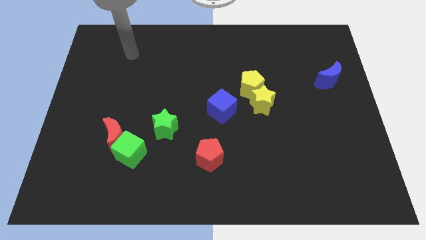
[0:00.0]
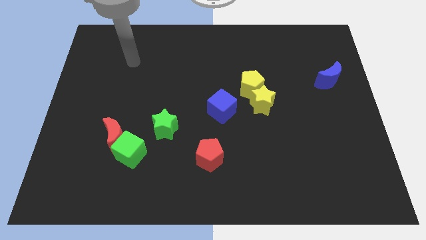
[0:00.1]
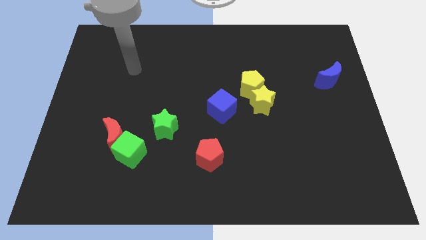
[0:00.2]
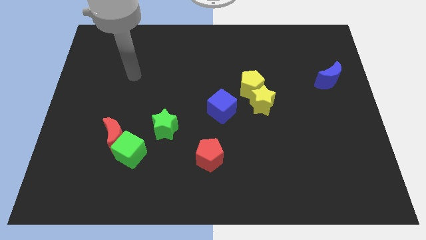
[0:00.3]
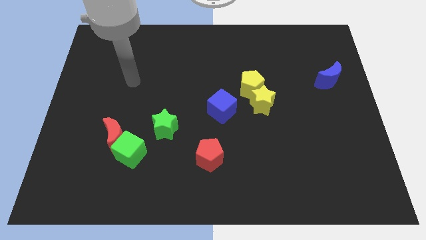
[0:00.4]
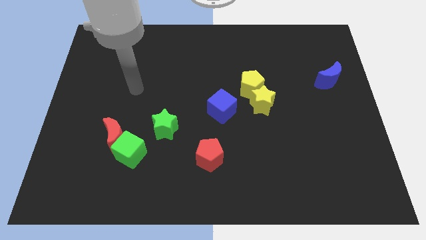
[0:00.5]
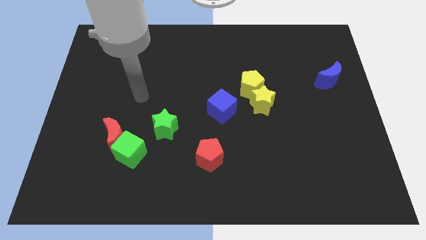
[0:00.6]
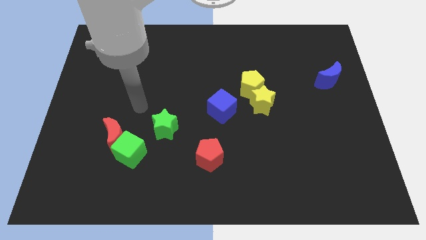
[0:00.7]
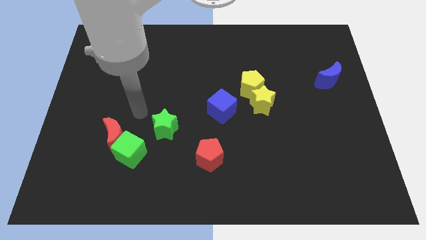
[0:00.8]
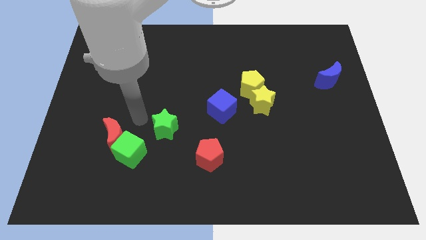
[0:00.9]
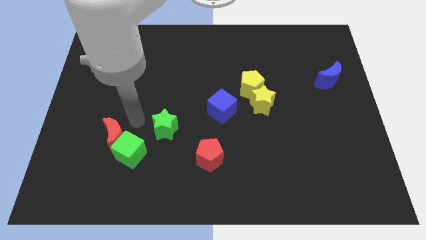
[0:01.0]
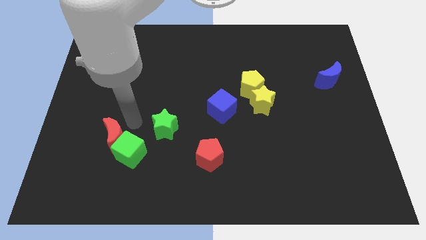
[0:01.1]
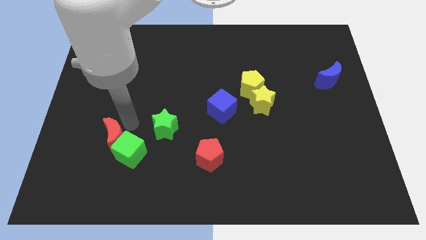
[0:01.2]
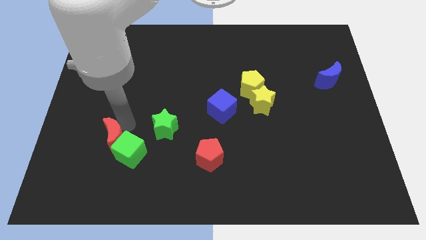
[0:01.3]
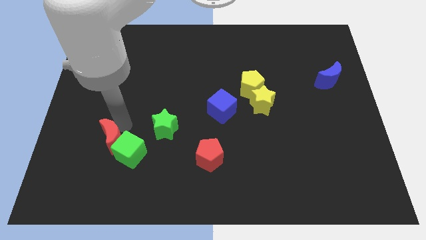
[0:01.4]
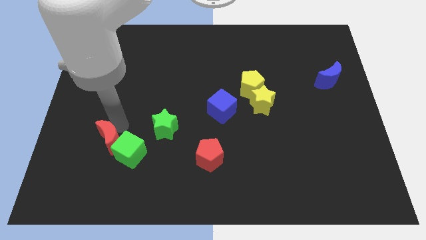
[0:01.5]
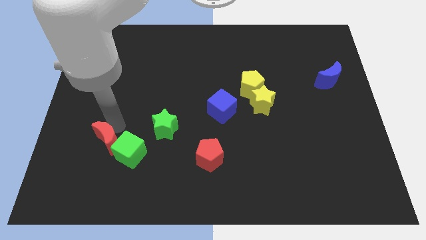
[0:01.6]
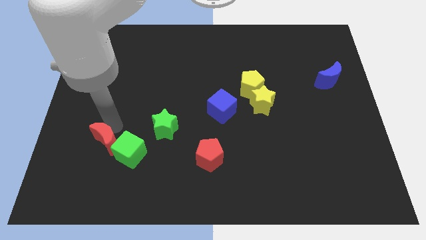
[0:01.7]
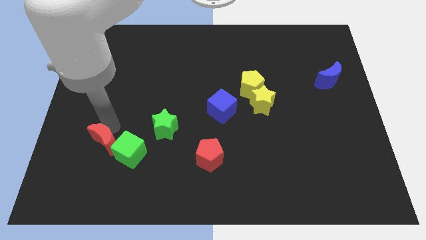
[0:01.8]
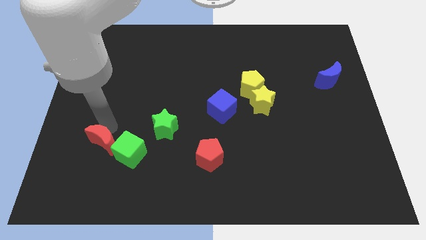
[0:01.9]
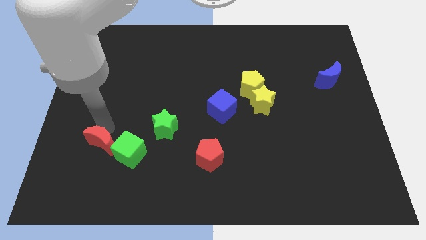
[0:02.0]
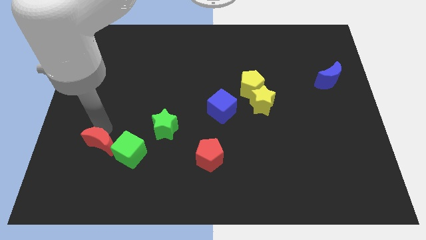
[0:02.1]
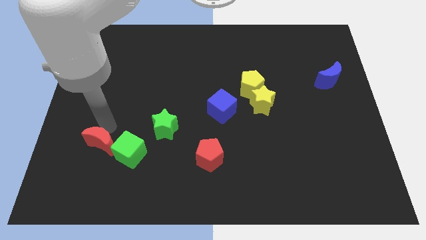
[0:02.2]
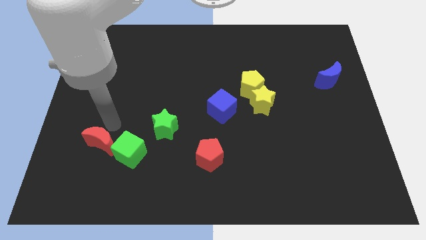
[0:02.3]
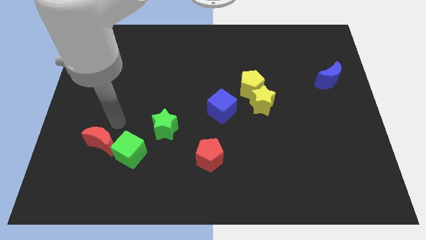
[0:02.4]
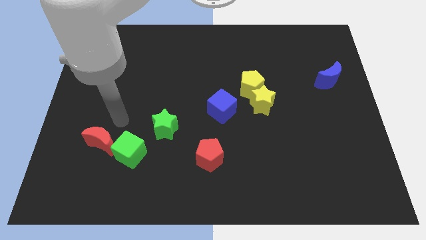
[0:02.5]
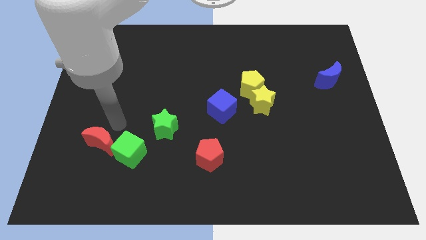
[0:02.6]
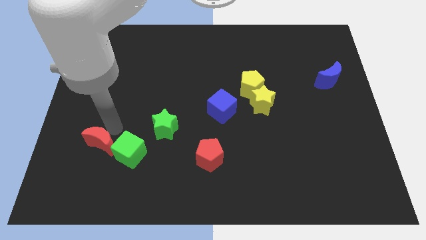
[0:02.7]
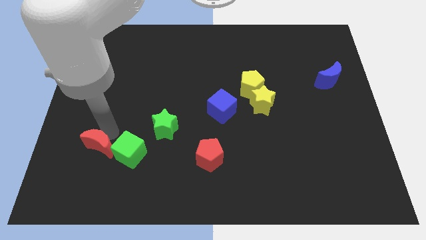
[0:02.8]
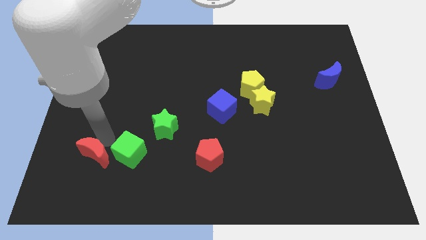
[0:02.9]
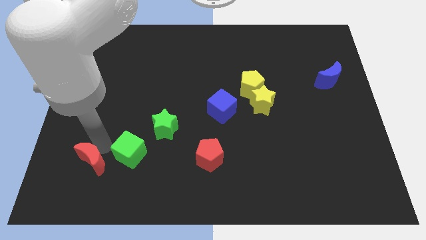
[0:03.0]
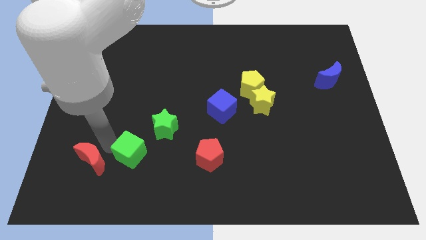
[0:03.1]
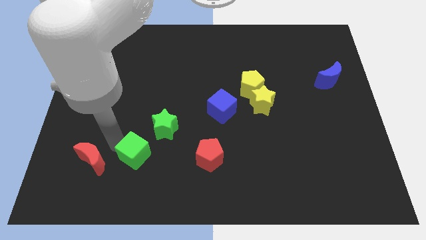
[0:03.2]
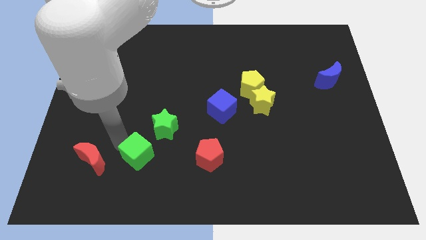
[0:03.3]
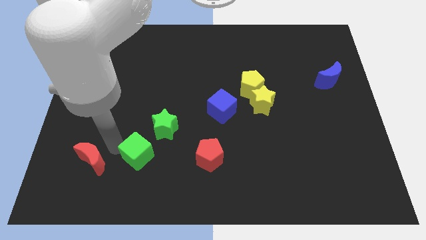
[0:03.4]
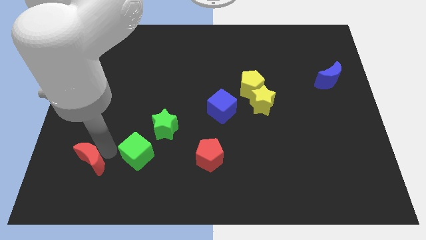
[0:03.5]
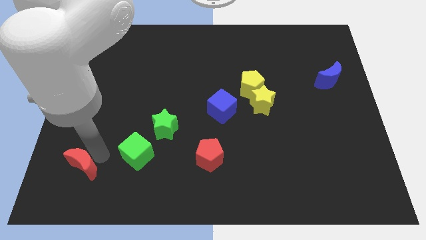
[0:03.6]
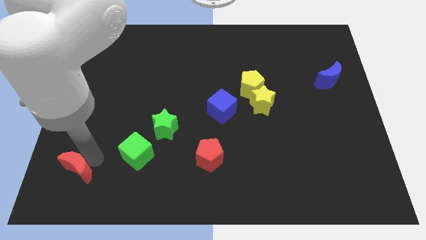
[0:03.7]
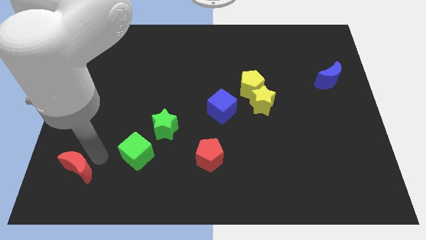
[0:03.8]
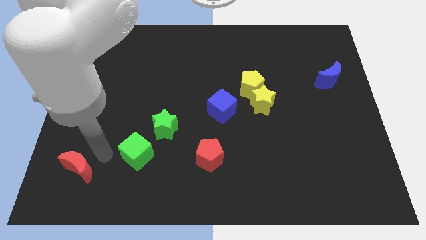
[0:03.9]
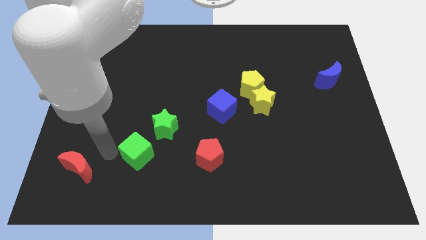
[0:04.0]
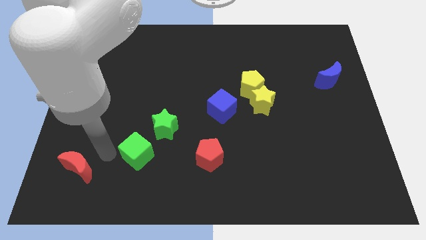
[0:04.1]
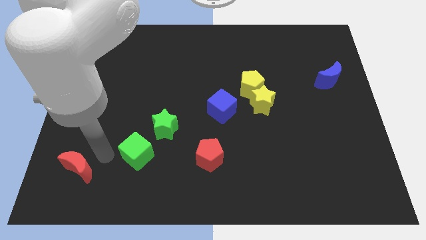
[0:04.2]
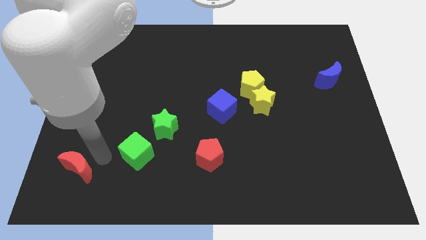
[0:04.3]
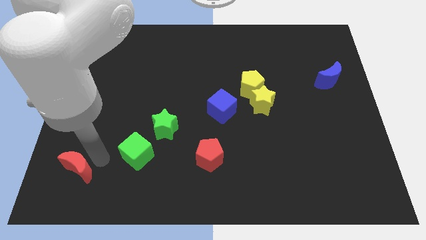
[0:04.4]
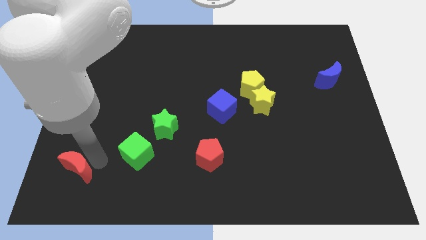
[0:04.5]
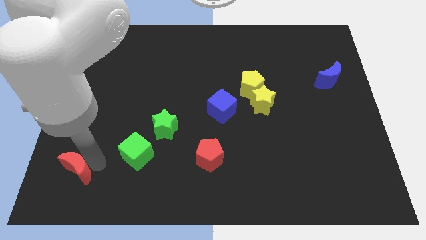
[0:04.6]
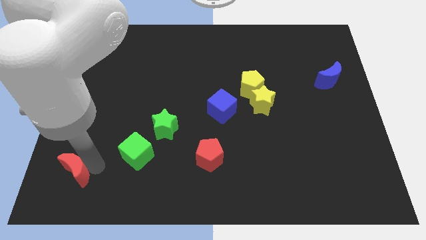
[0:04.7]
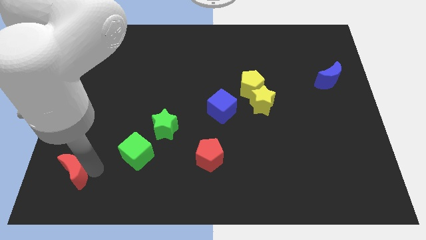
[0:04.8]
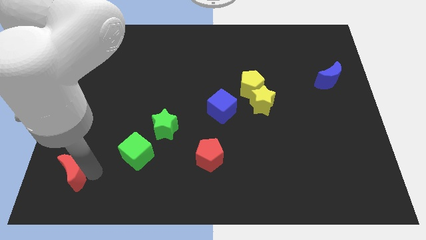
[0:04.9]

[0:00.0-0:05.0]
push the red moon to the bottom left corner

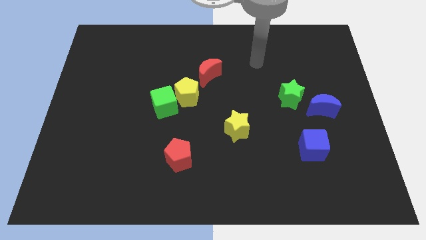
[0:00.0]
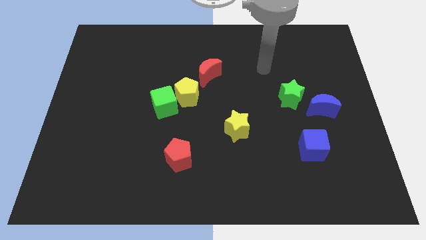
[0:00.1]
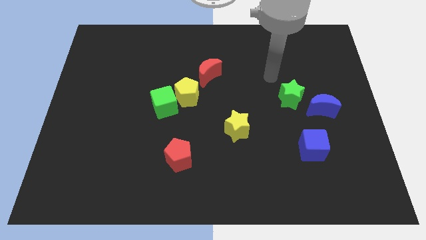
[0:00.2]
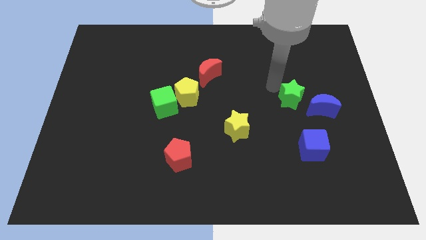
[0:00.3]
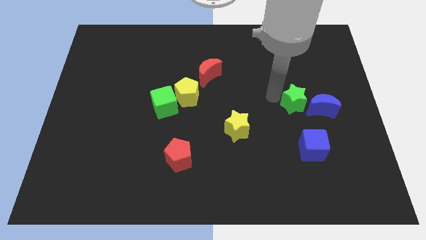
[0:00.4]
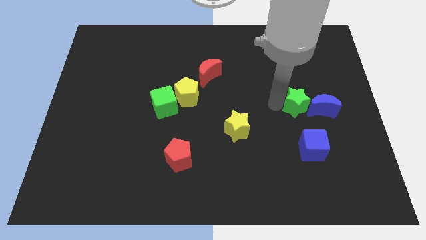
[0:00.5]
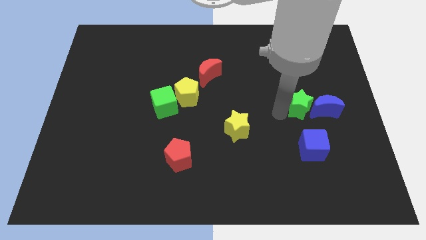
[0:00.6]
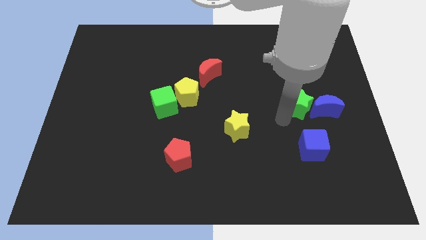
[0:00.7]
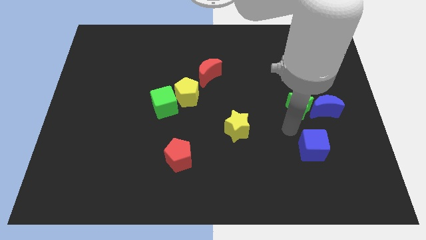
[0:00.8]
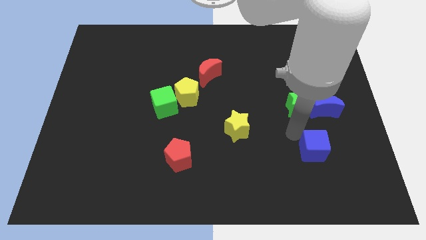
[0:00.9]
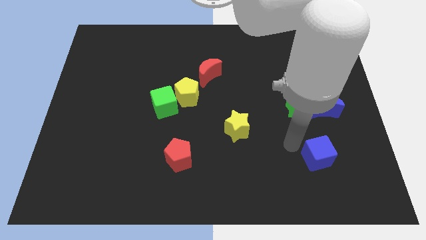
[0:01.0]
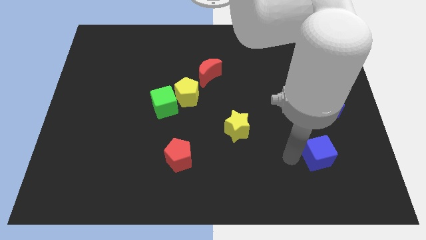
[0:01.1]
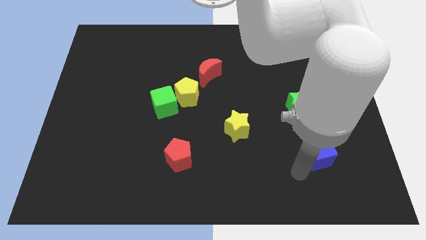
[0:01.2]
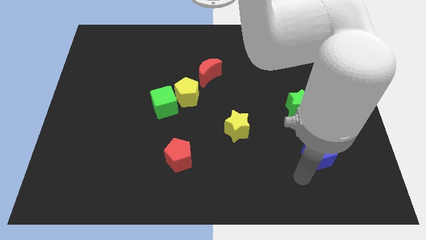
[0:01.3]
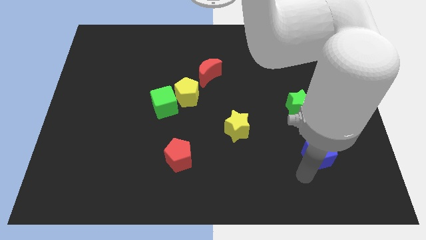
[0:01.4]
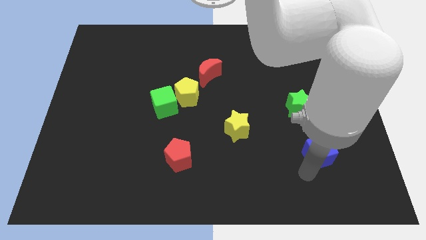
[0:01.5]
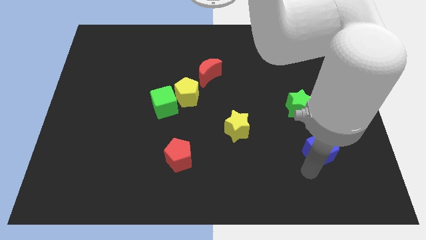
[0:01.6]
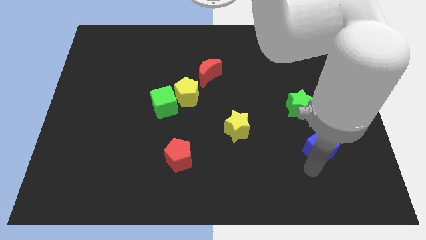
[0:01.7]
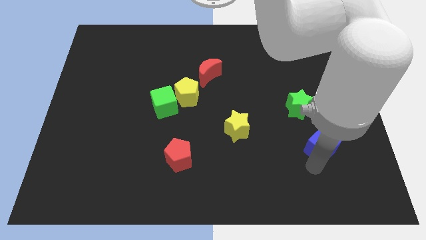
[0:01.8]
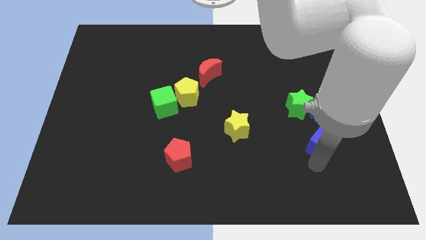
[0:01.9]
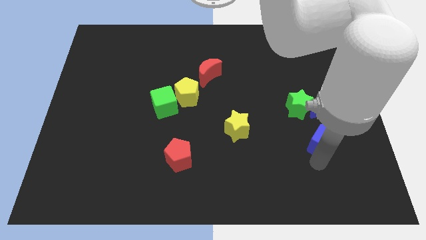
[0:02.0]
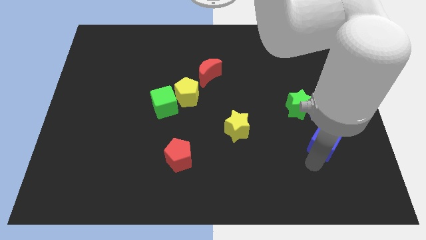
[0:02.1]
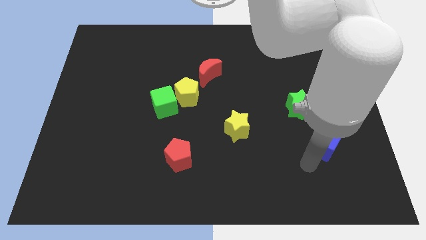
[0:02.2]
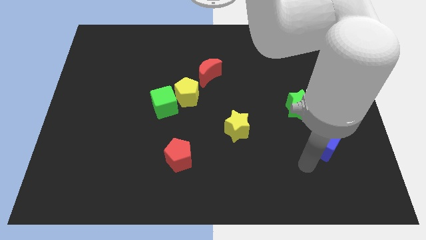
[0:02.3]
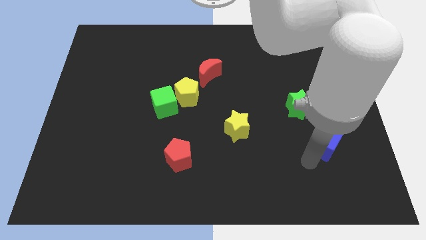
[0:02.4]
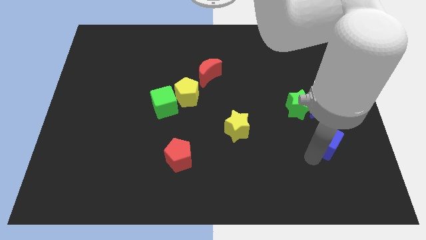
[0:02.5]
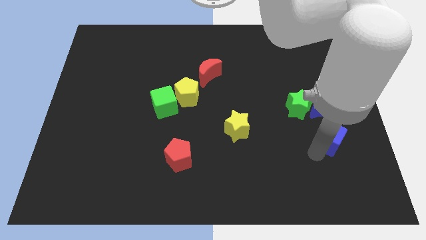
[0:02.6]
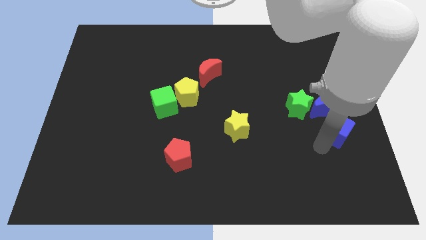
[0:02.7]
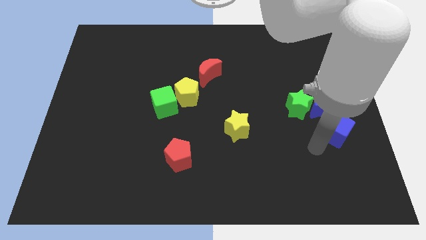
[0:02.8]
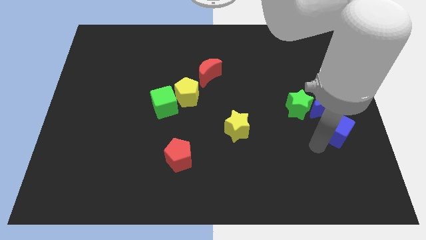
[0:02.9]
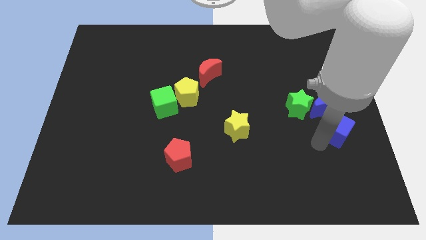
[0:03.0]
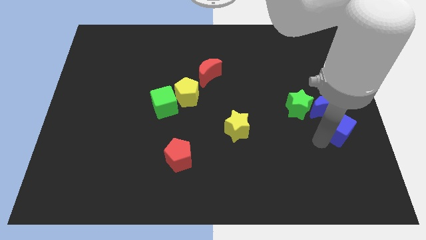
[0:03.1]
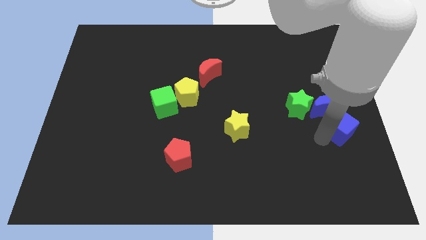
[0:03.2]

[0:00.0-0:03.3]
push the blue cube to the right side of the board
